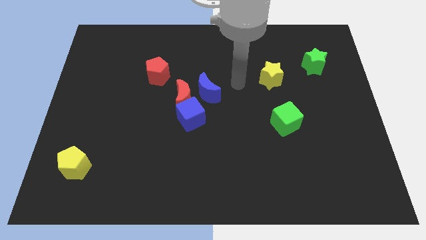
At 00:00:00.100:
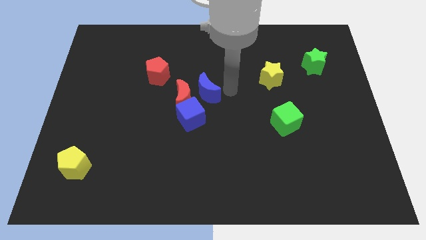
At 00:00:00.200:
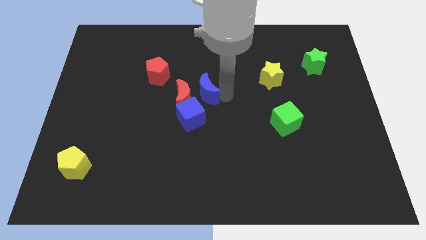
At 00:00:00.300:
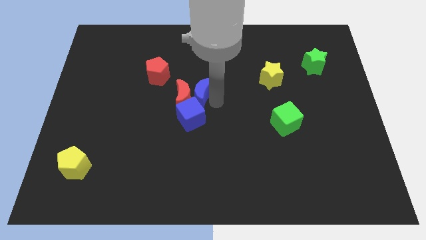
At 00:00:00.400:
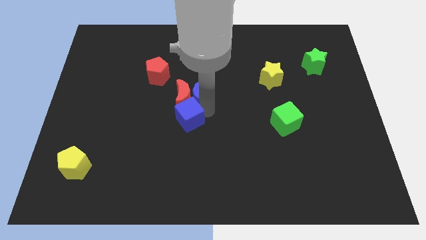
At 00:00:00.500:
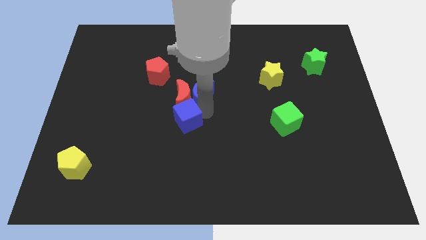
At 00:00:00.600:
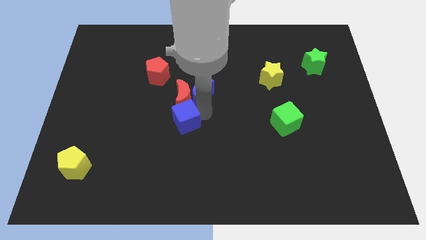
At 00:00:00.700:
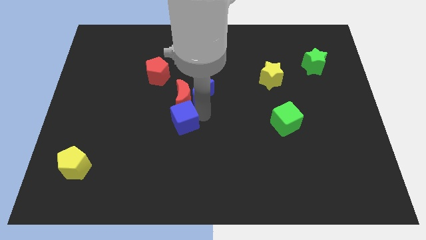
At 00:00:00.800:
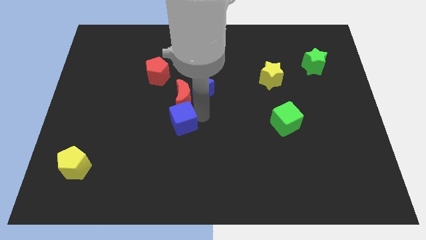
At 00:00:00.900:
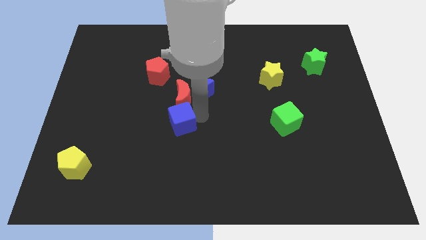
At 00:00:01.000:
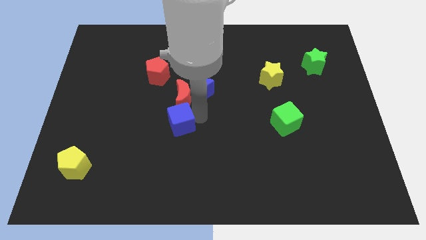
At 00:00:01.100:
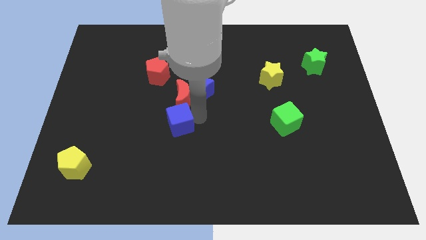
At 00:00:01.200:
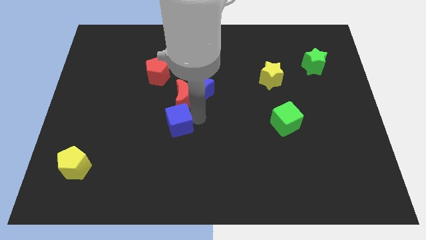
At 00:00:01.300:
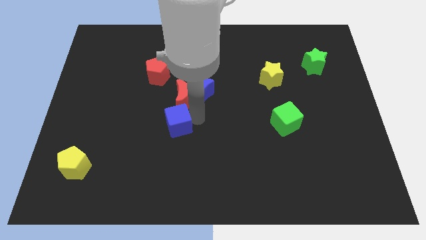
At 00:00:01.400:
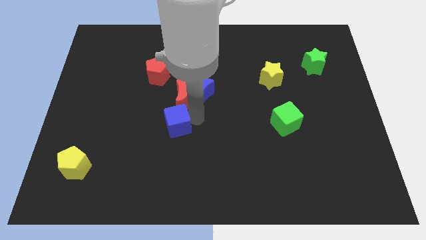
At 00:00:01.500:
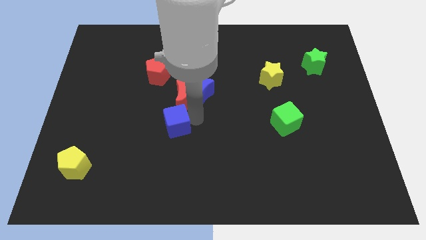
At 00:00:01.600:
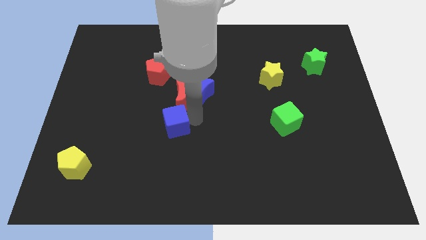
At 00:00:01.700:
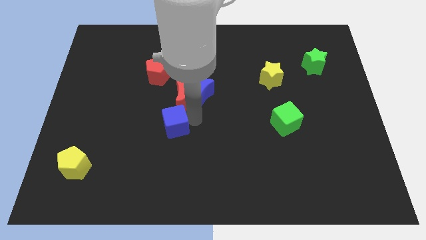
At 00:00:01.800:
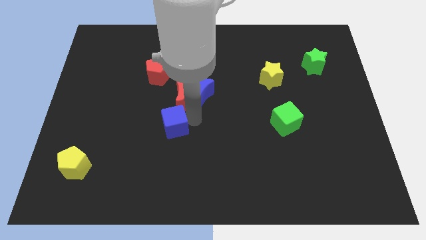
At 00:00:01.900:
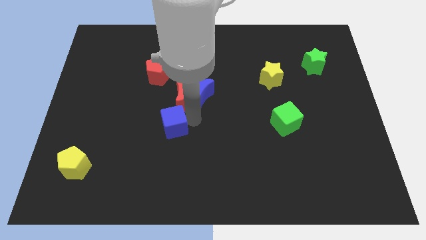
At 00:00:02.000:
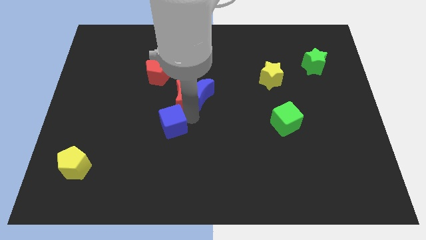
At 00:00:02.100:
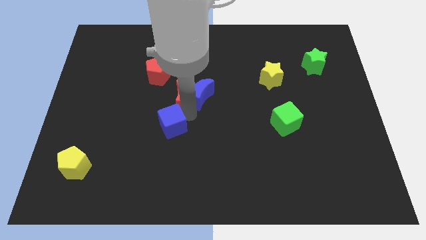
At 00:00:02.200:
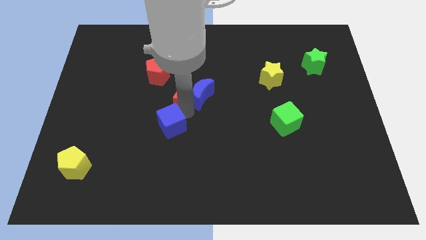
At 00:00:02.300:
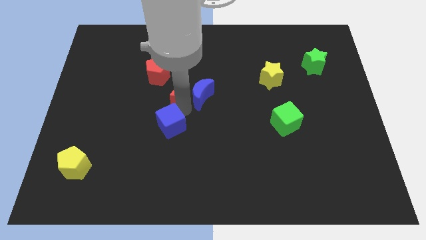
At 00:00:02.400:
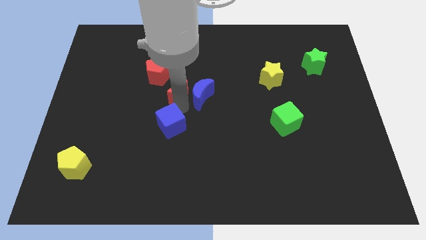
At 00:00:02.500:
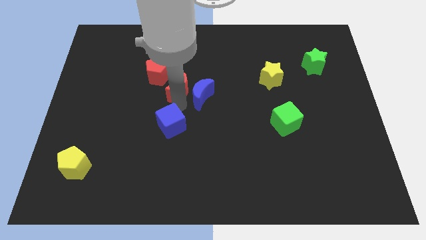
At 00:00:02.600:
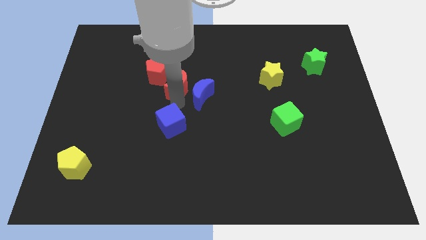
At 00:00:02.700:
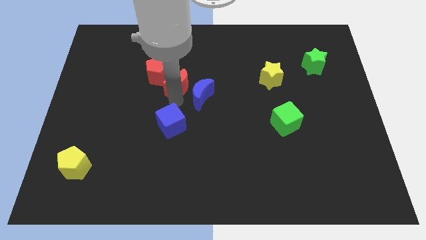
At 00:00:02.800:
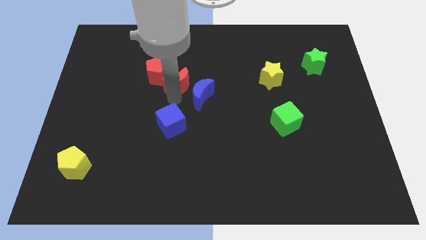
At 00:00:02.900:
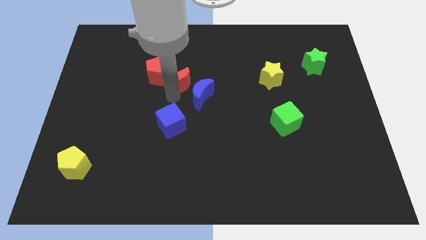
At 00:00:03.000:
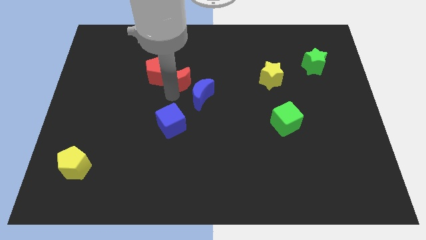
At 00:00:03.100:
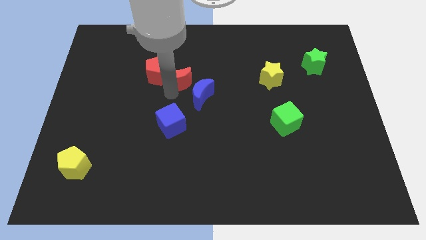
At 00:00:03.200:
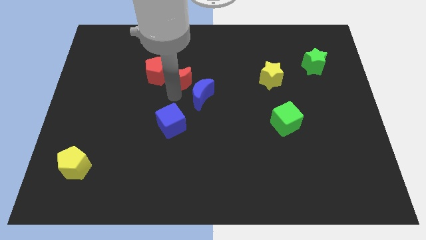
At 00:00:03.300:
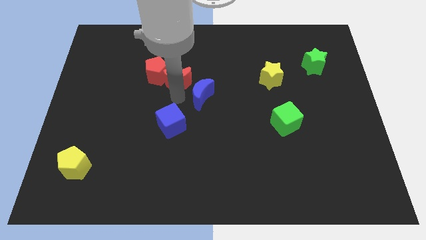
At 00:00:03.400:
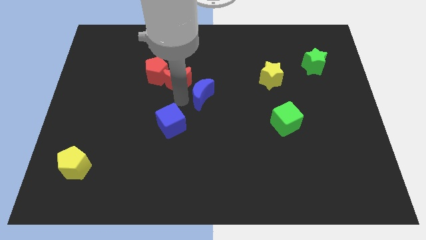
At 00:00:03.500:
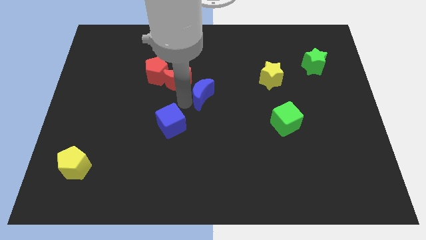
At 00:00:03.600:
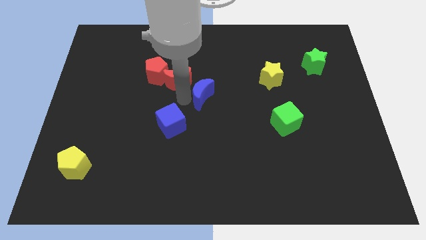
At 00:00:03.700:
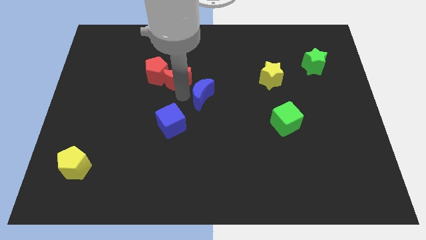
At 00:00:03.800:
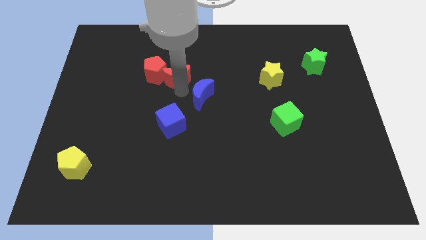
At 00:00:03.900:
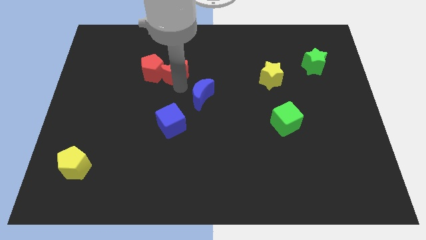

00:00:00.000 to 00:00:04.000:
separate the red moon from the blue cube and blue moon

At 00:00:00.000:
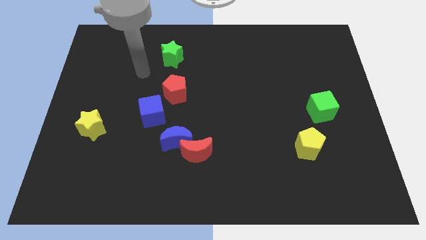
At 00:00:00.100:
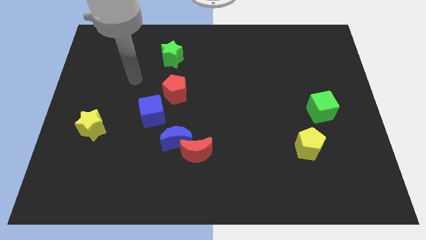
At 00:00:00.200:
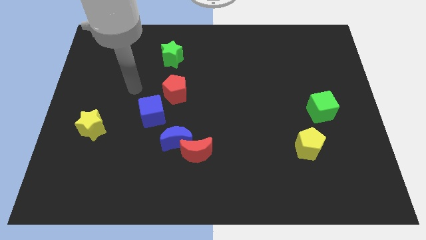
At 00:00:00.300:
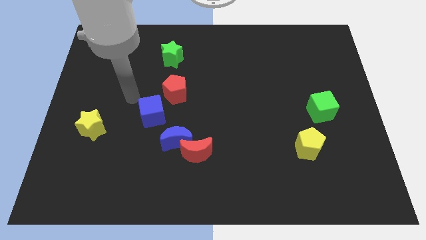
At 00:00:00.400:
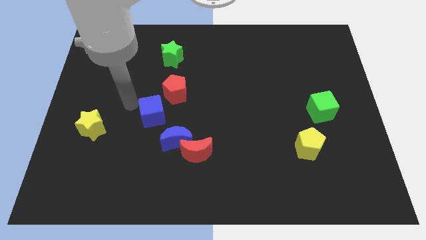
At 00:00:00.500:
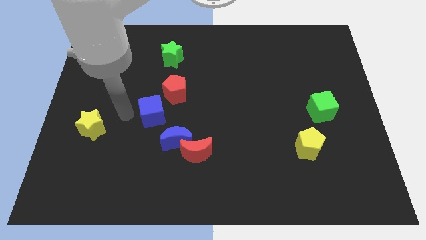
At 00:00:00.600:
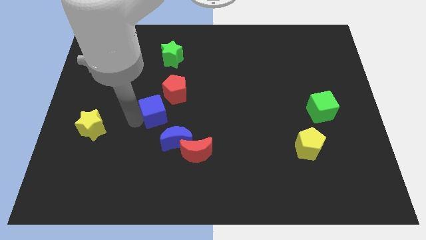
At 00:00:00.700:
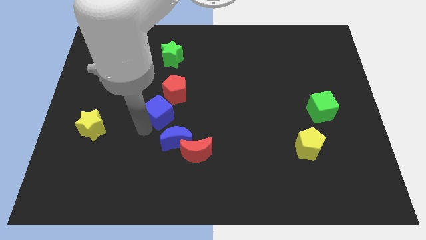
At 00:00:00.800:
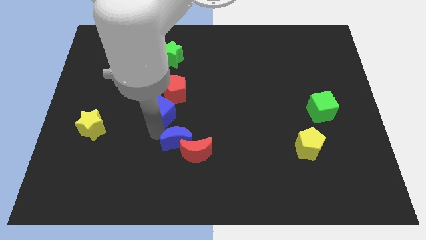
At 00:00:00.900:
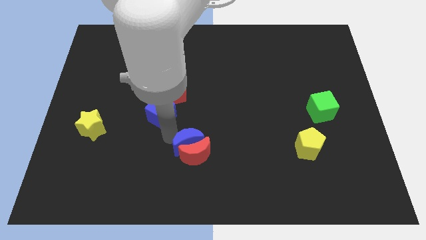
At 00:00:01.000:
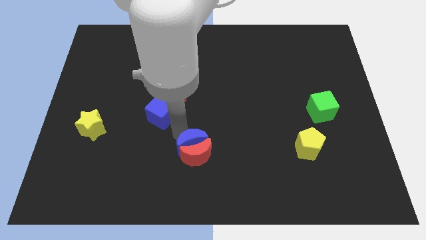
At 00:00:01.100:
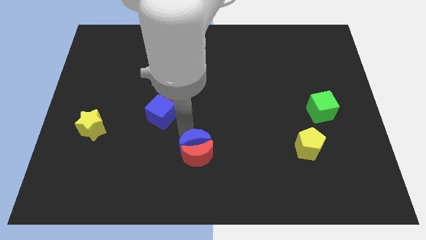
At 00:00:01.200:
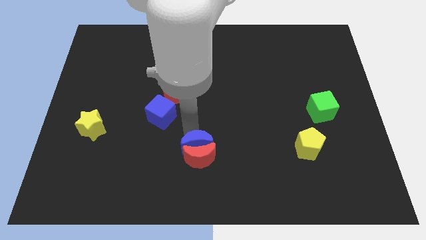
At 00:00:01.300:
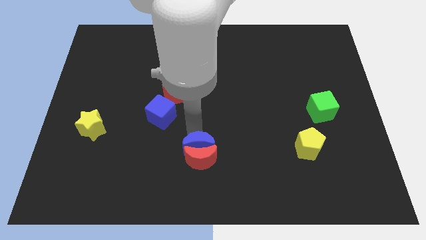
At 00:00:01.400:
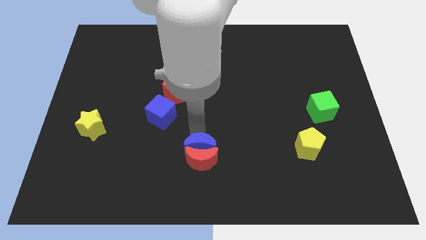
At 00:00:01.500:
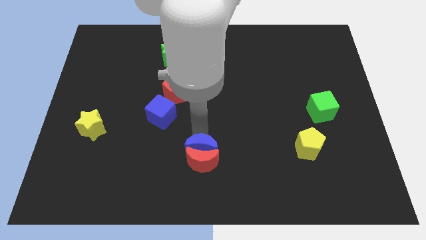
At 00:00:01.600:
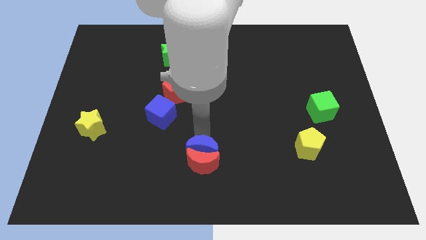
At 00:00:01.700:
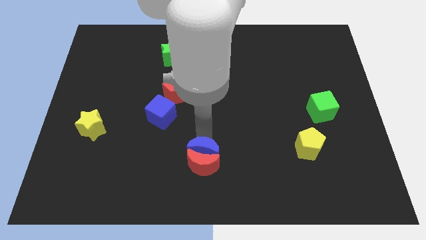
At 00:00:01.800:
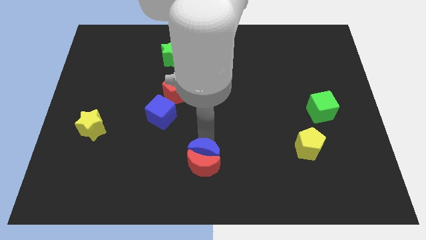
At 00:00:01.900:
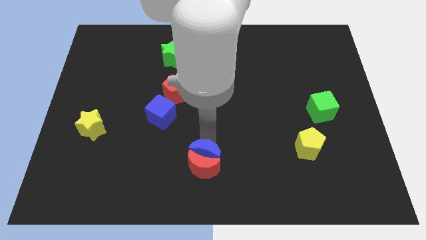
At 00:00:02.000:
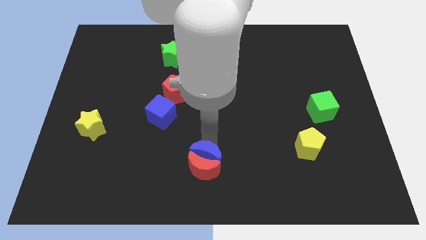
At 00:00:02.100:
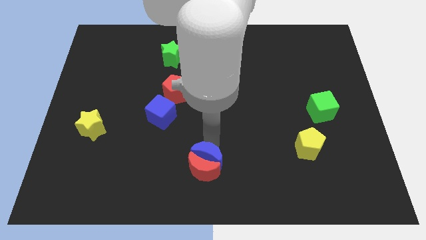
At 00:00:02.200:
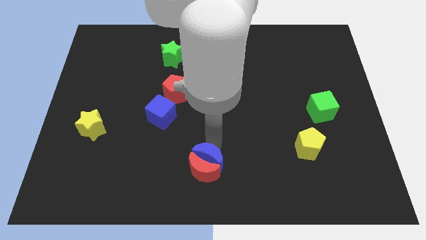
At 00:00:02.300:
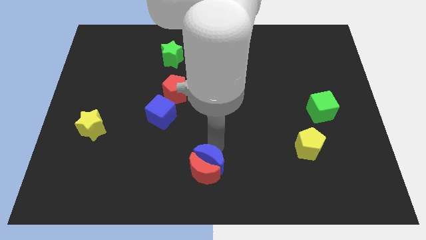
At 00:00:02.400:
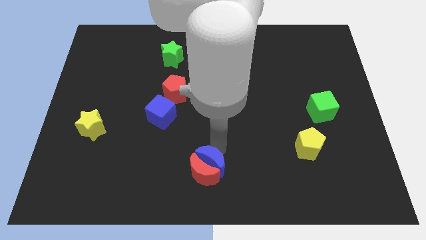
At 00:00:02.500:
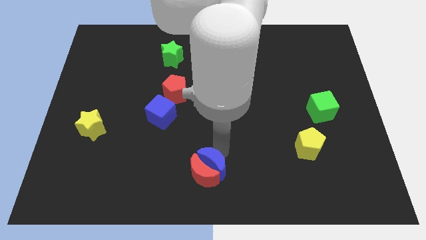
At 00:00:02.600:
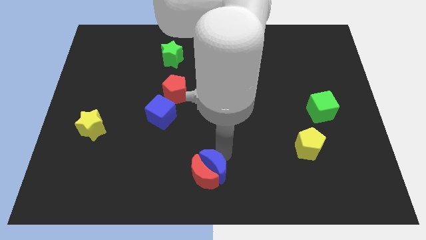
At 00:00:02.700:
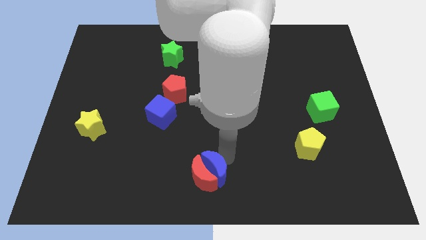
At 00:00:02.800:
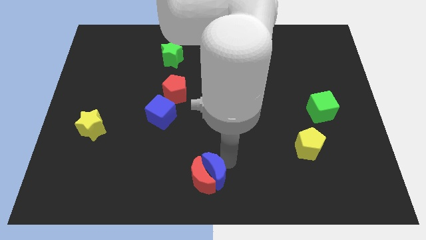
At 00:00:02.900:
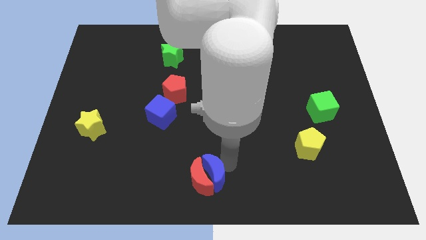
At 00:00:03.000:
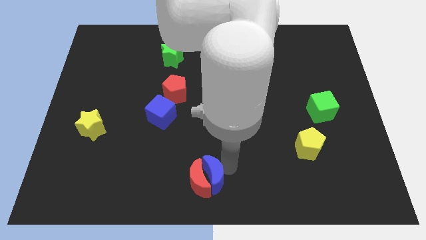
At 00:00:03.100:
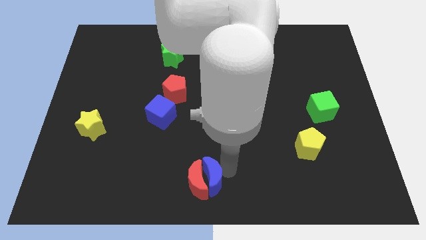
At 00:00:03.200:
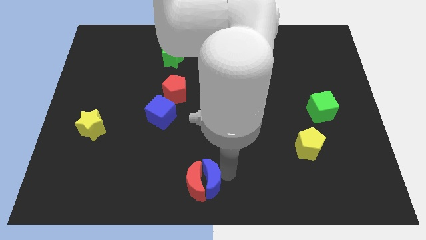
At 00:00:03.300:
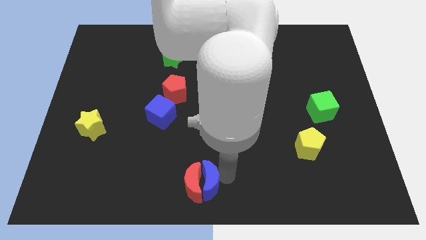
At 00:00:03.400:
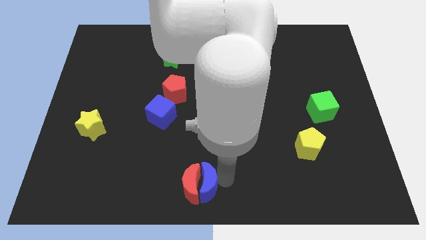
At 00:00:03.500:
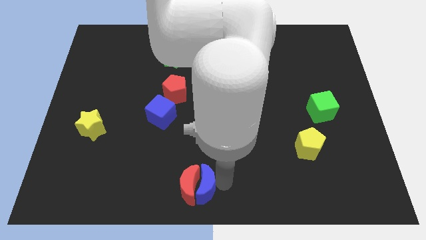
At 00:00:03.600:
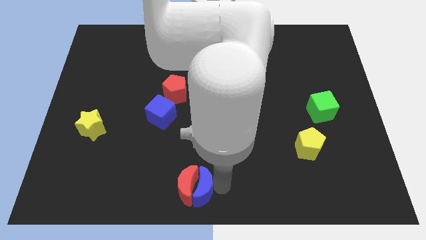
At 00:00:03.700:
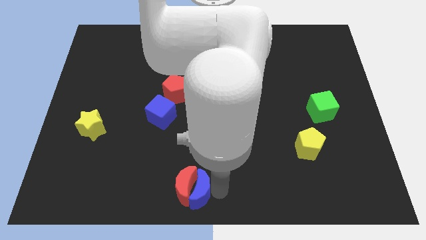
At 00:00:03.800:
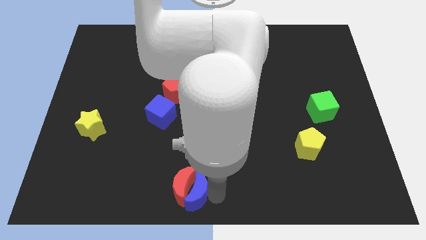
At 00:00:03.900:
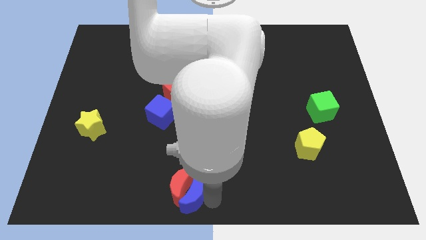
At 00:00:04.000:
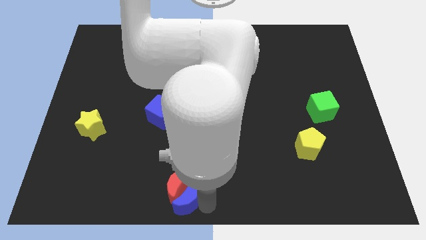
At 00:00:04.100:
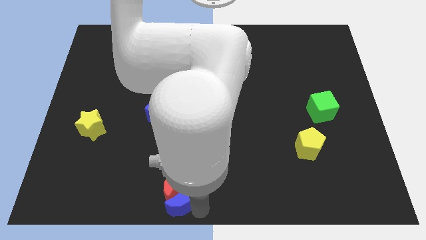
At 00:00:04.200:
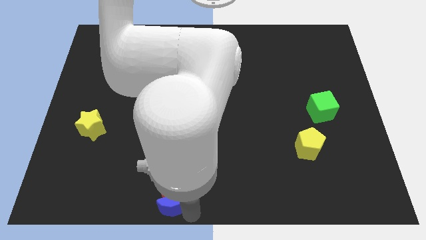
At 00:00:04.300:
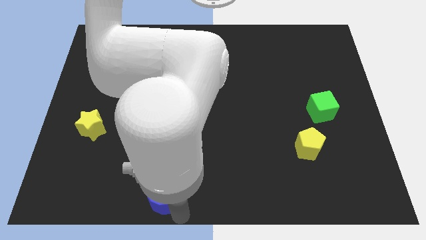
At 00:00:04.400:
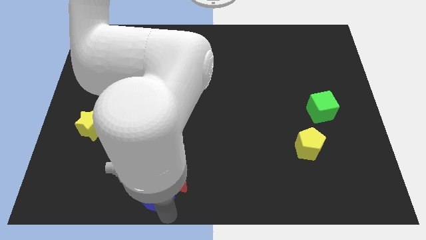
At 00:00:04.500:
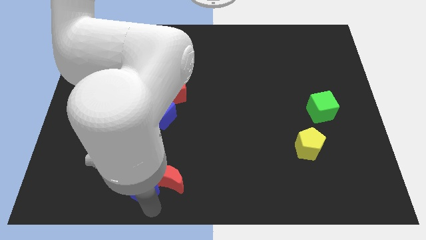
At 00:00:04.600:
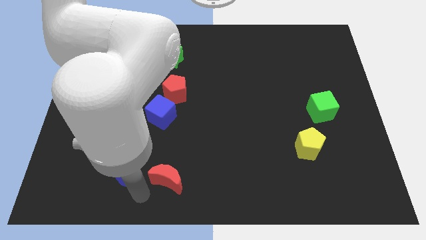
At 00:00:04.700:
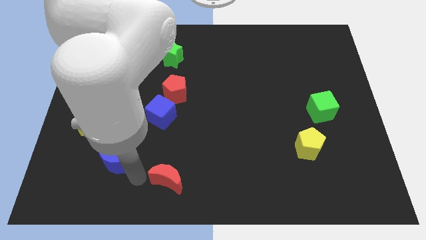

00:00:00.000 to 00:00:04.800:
pull the red moon apart from the blue moon

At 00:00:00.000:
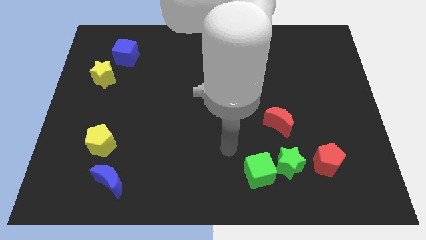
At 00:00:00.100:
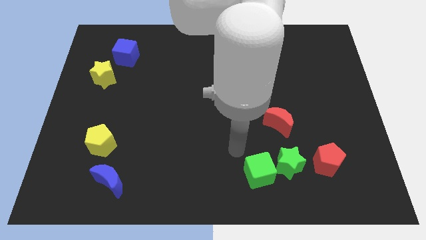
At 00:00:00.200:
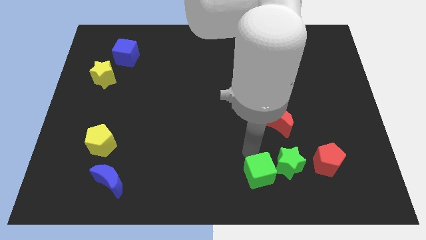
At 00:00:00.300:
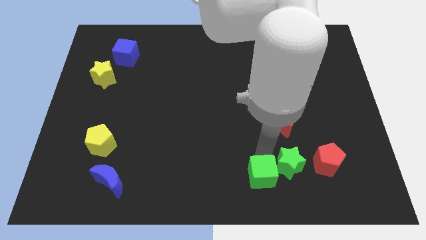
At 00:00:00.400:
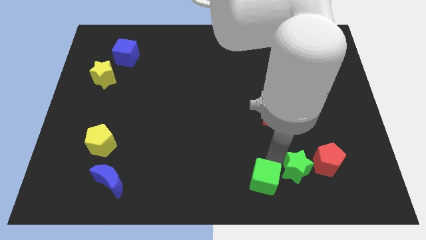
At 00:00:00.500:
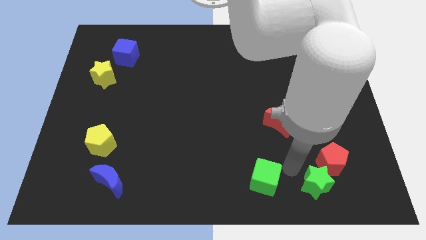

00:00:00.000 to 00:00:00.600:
move the green cube away from the green star
